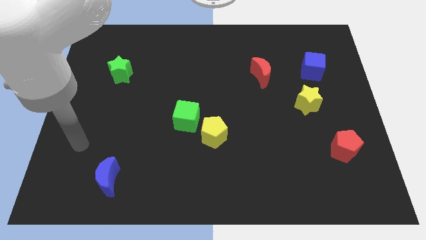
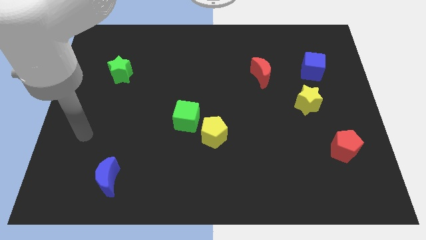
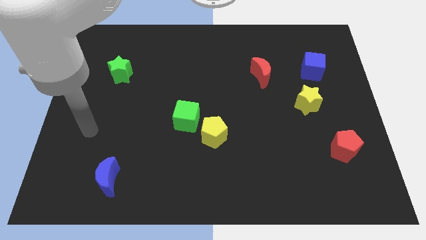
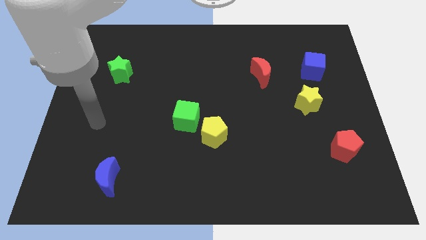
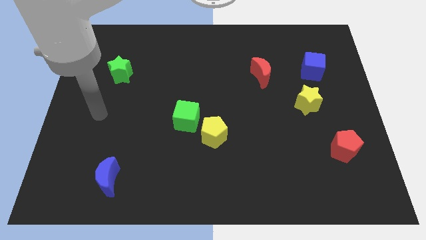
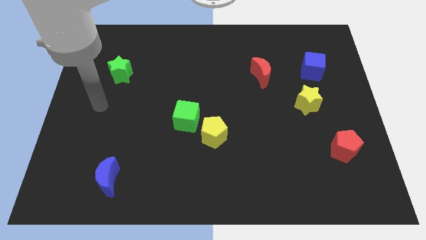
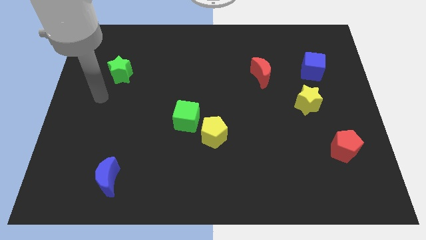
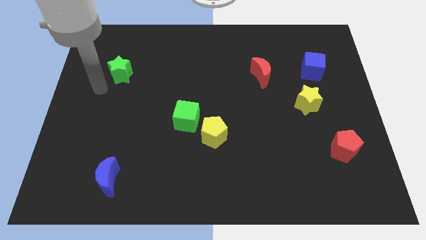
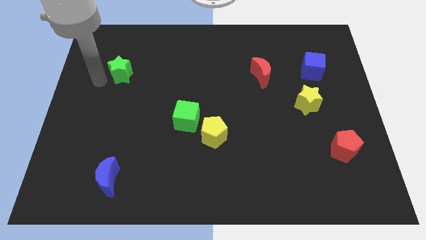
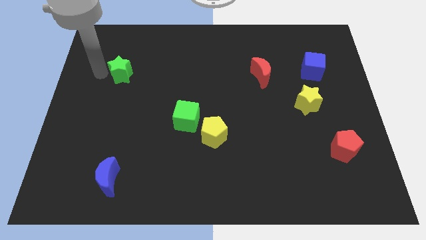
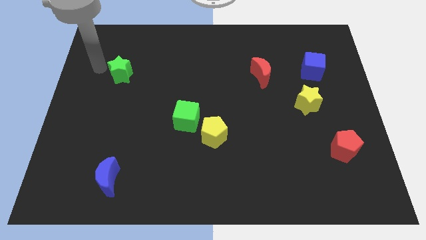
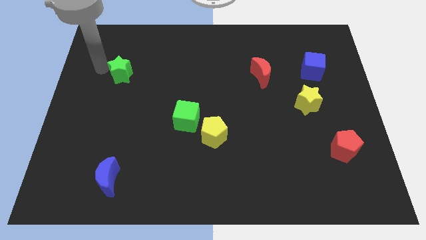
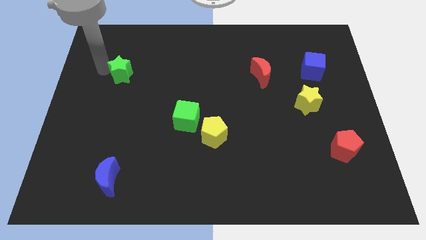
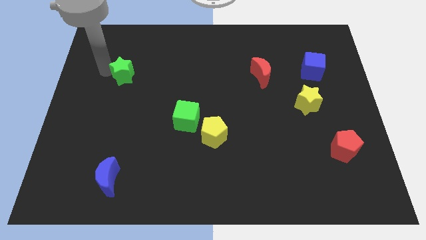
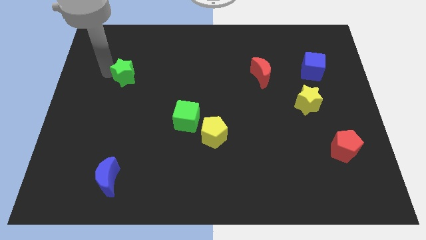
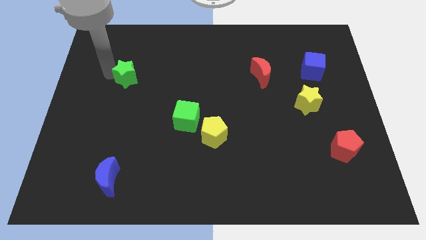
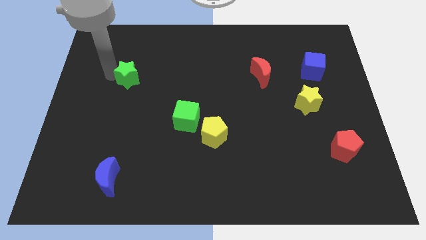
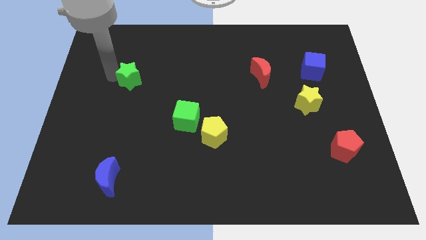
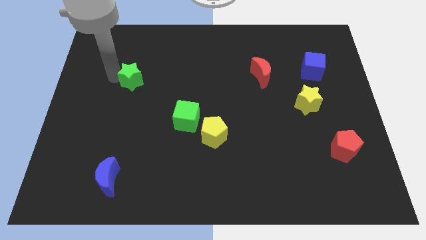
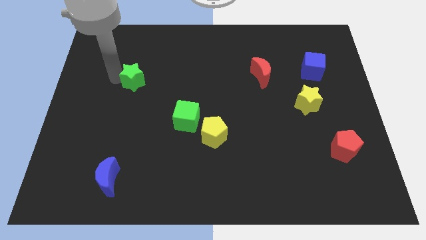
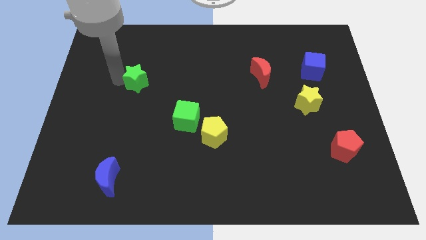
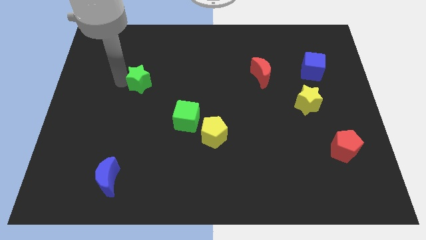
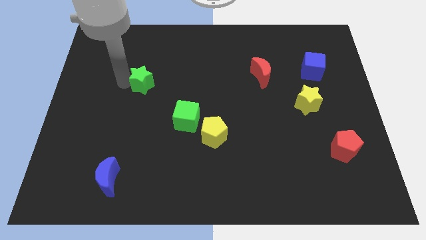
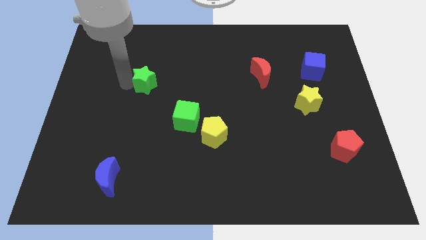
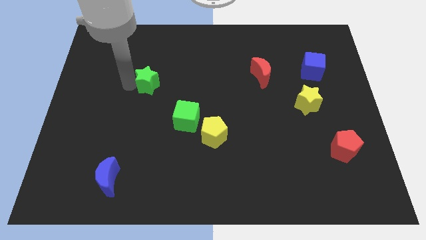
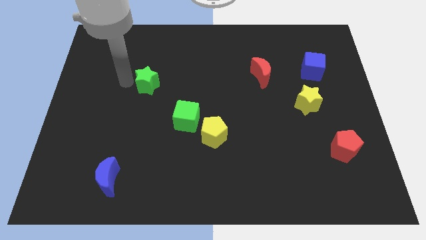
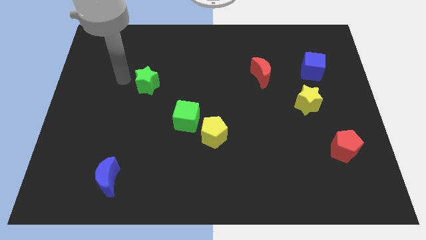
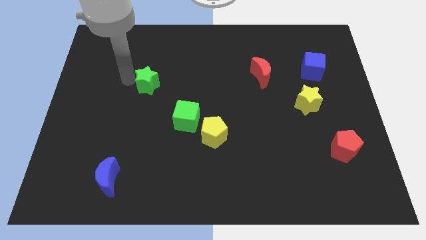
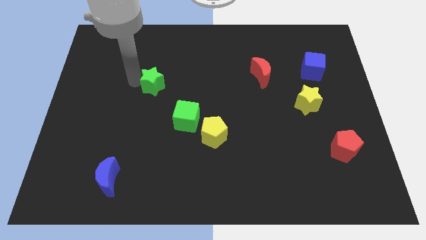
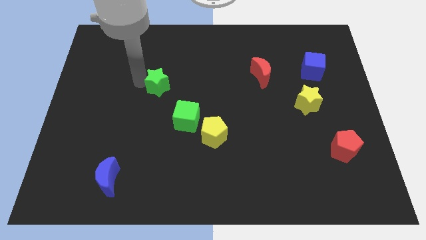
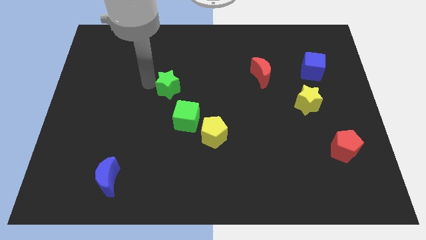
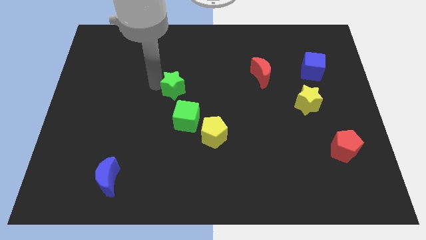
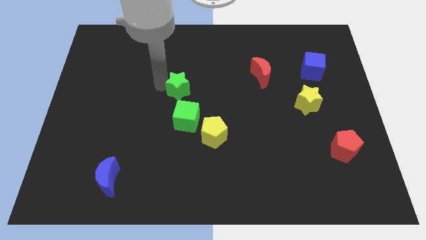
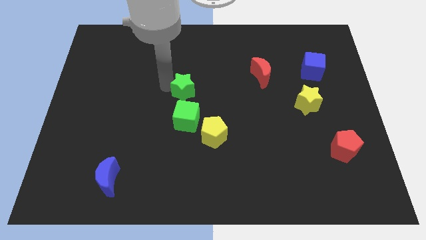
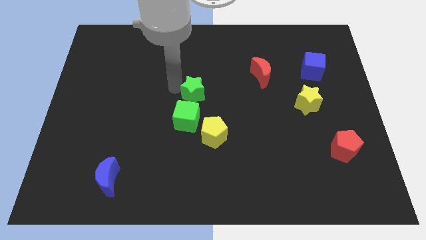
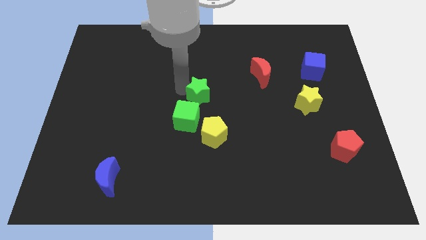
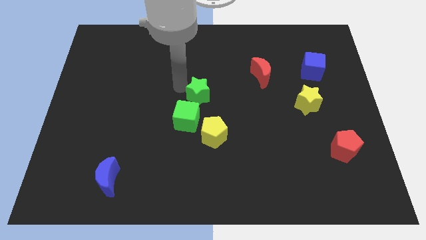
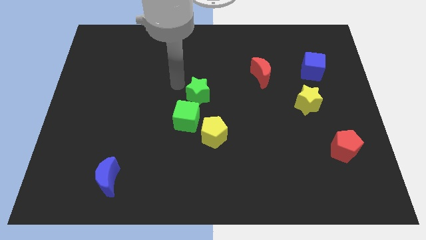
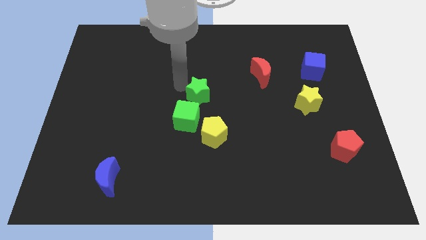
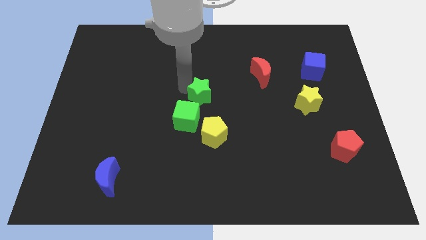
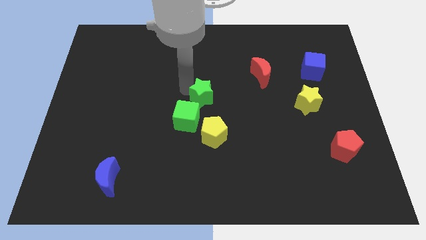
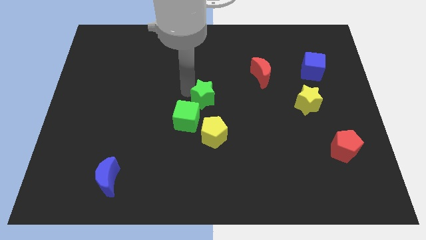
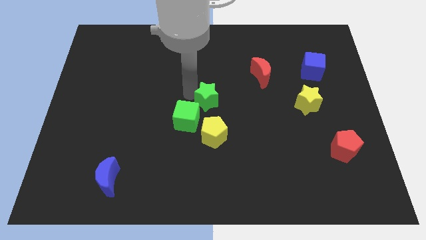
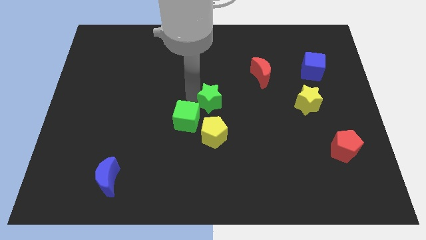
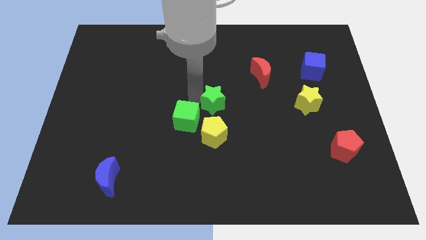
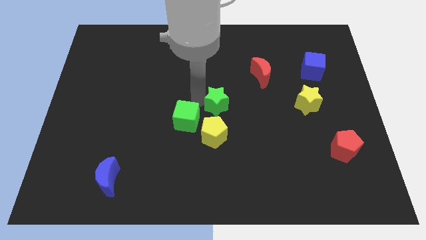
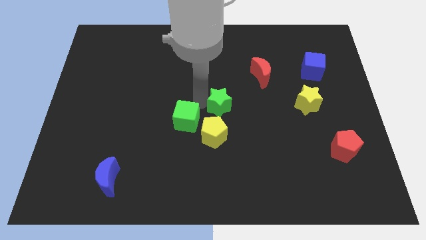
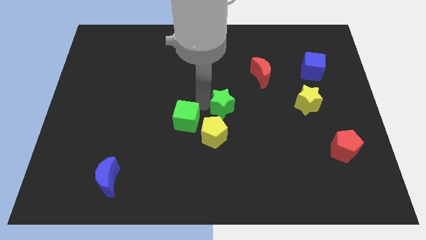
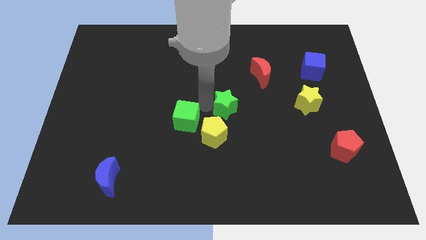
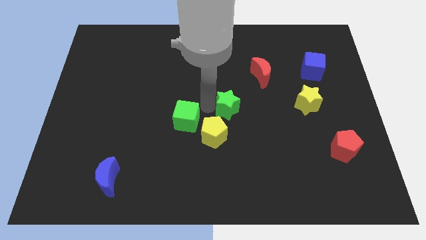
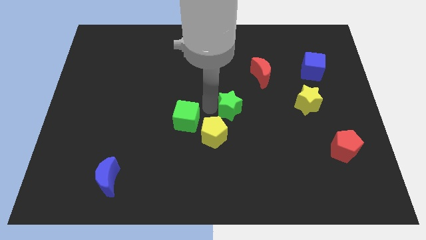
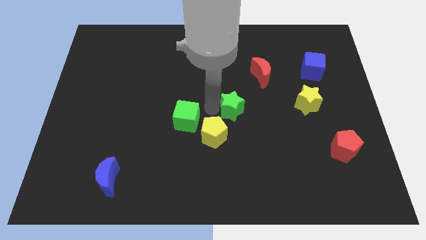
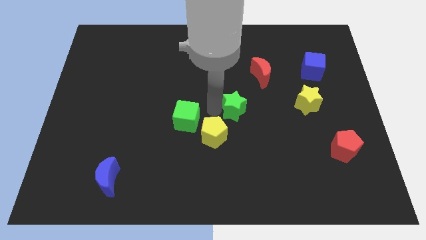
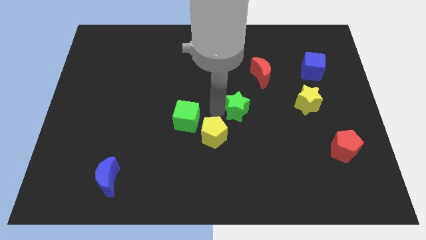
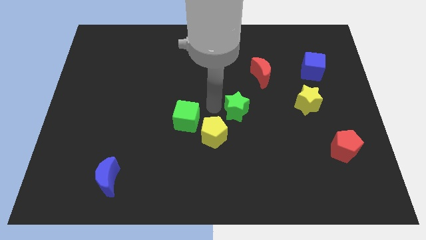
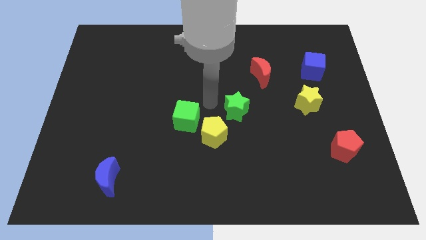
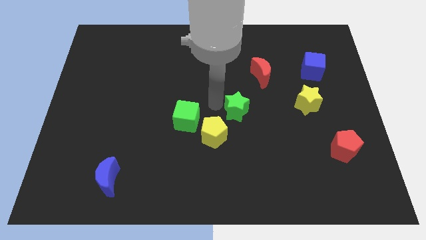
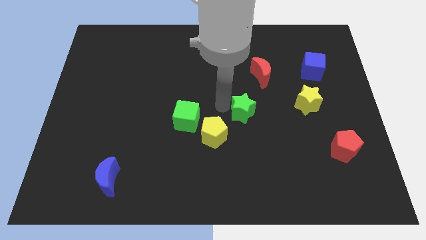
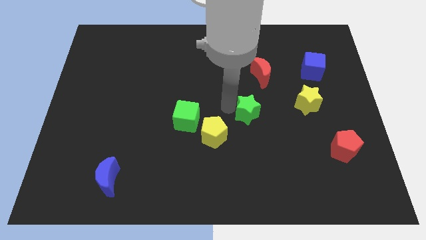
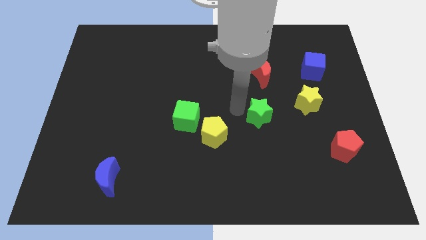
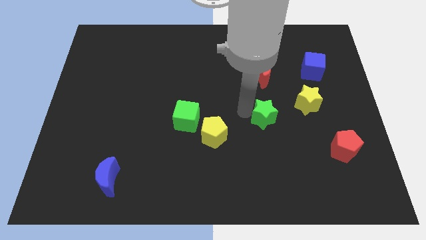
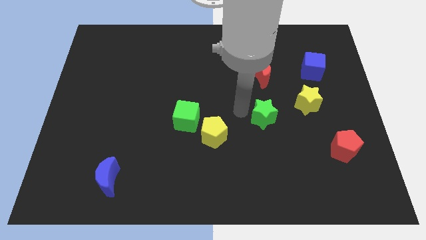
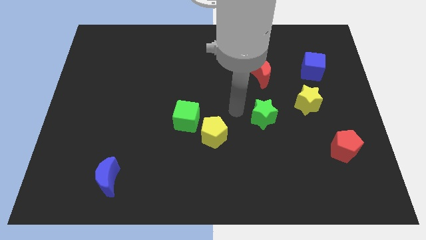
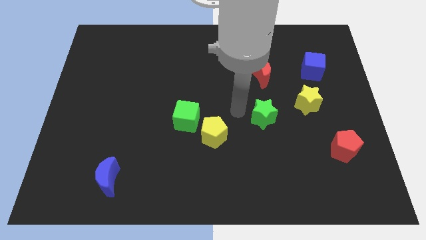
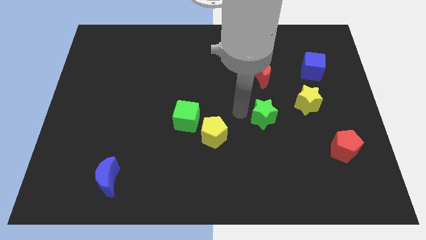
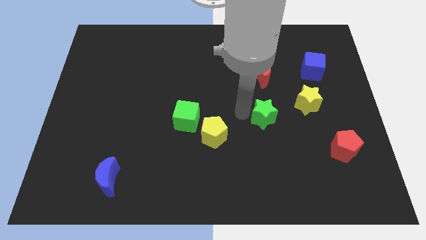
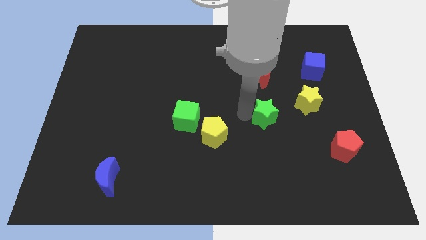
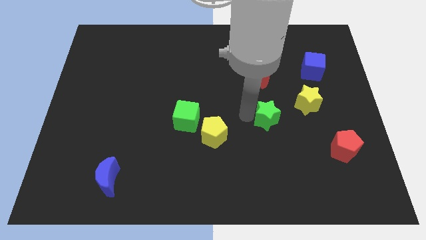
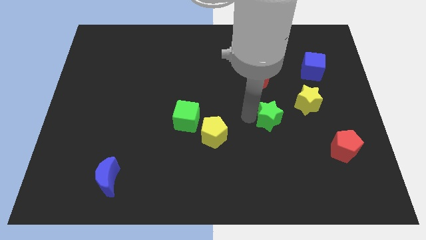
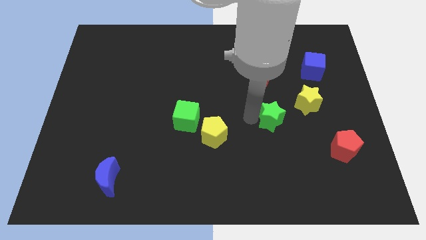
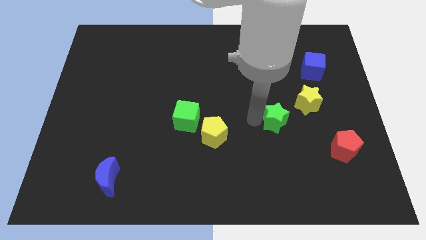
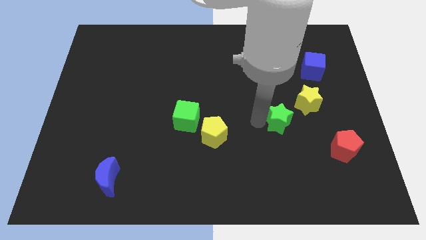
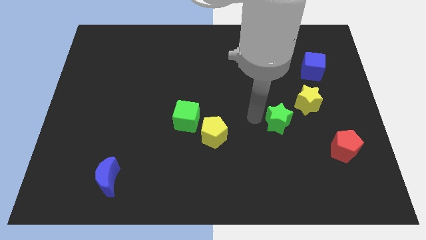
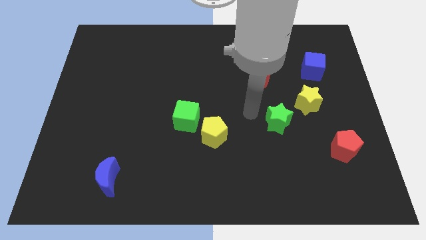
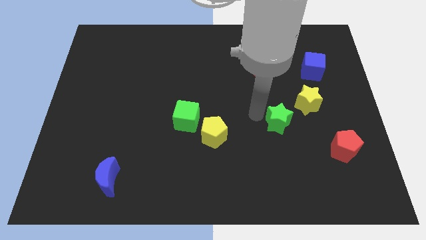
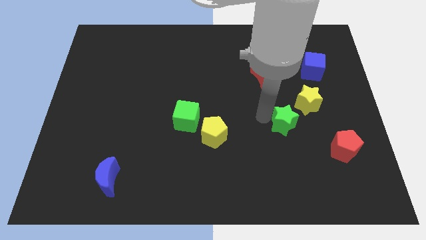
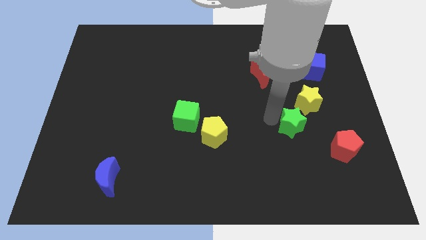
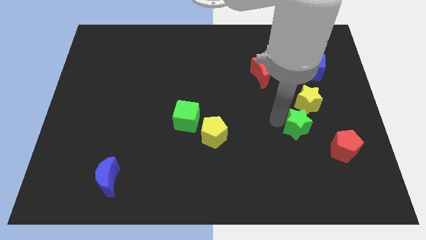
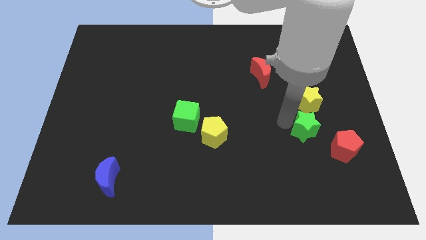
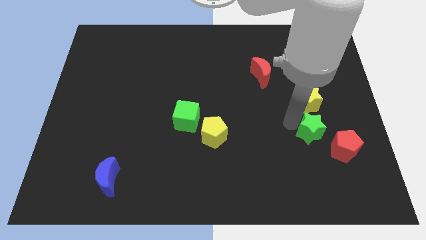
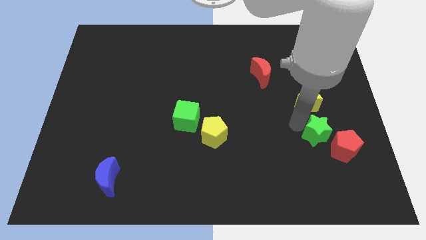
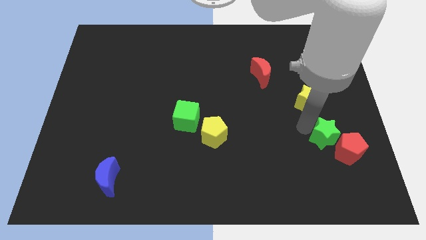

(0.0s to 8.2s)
move the green star close to the red pentagon
